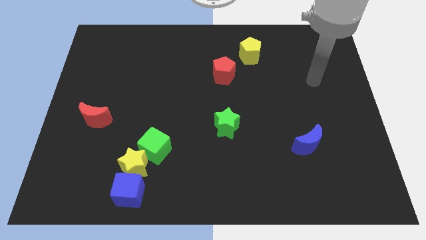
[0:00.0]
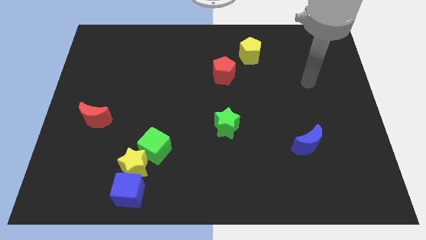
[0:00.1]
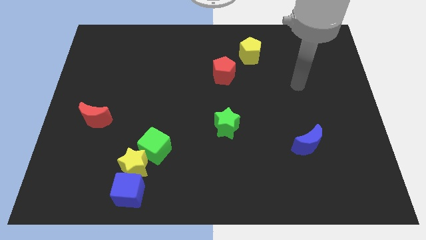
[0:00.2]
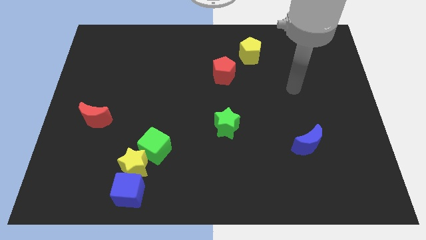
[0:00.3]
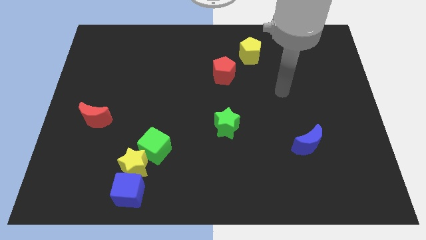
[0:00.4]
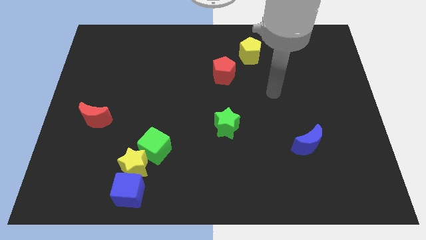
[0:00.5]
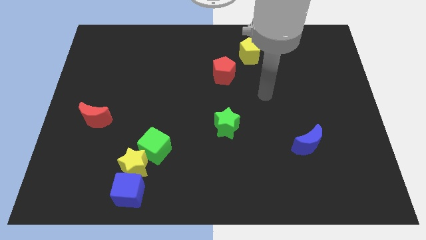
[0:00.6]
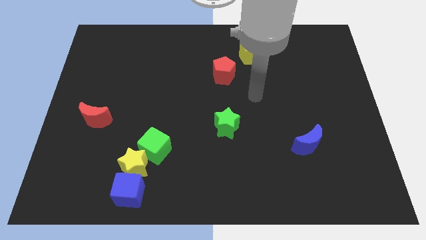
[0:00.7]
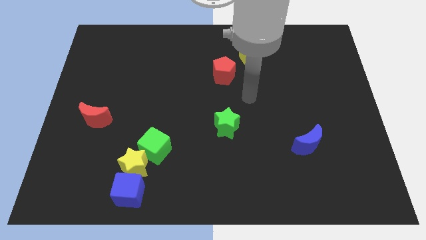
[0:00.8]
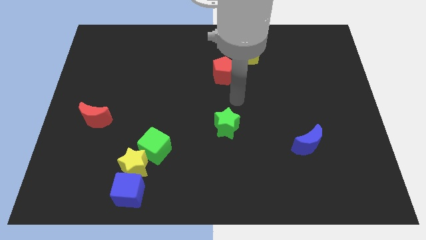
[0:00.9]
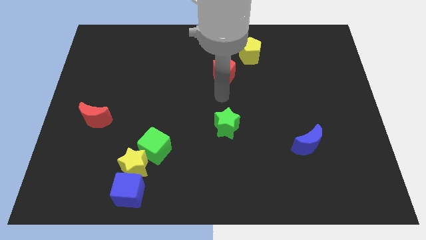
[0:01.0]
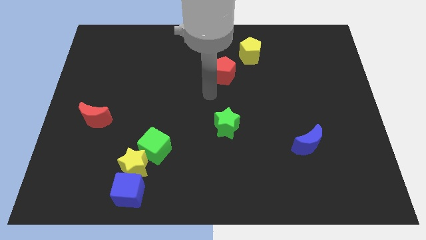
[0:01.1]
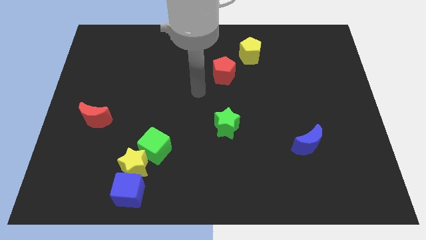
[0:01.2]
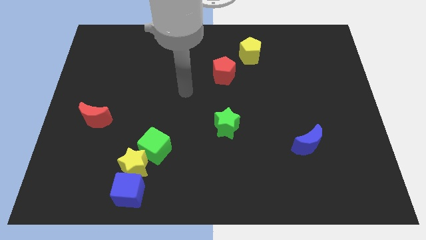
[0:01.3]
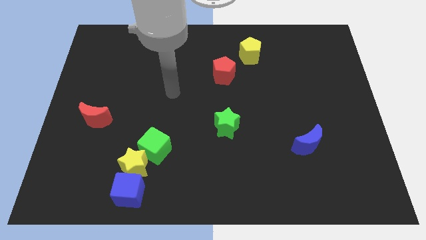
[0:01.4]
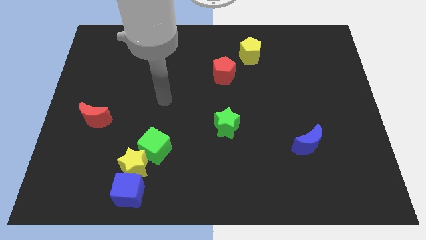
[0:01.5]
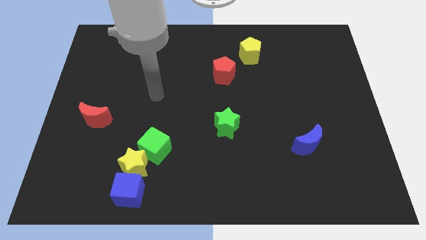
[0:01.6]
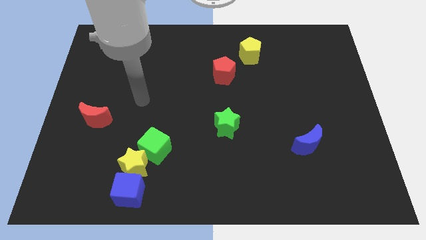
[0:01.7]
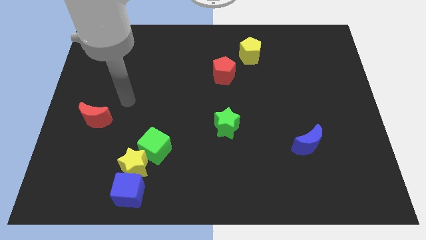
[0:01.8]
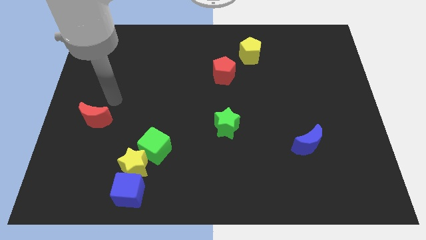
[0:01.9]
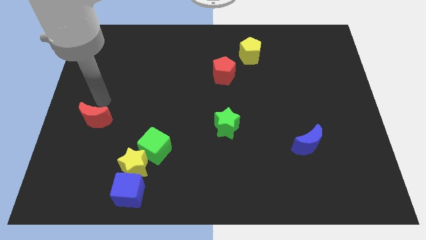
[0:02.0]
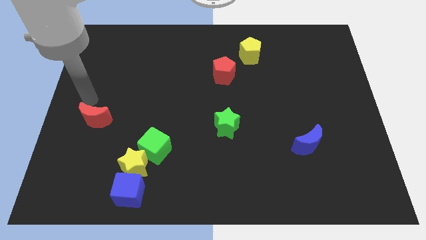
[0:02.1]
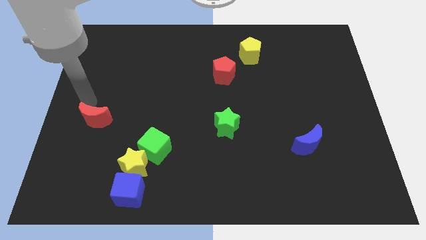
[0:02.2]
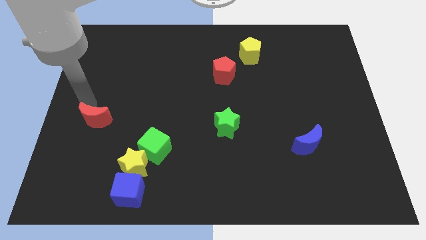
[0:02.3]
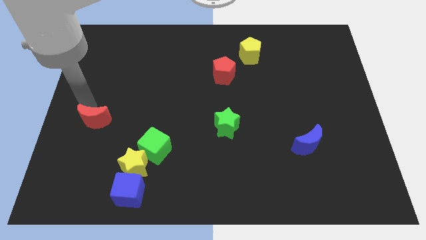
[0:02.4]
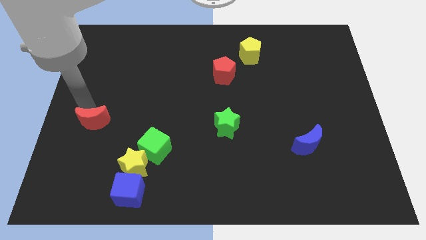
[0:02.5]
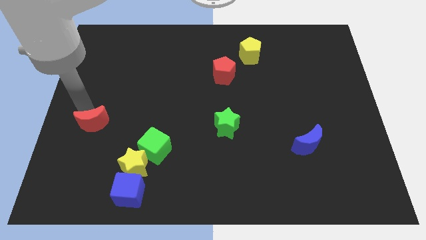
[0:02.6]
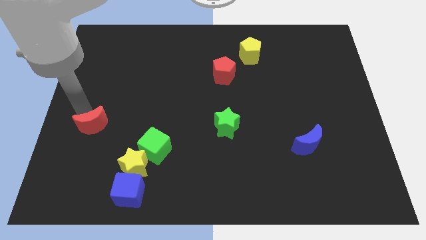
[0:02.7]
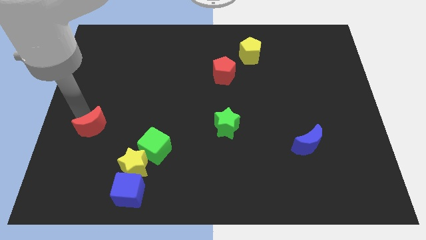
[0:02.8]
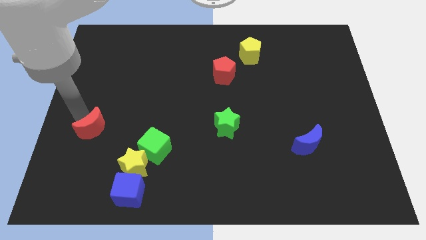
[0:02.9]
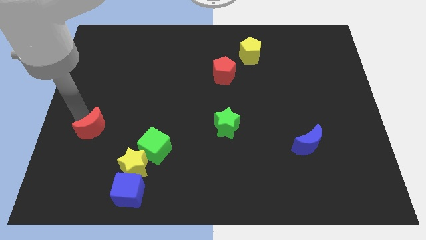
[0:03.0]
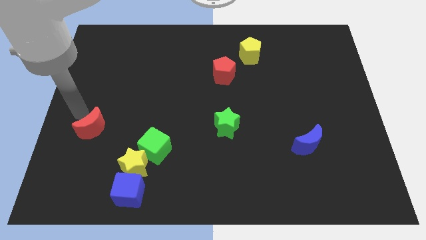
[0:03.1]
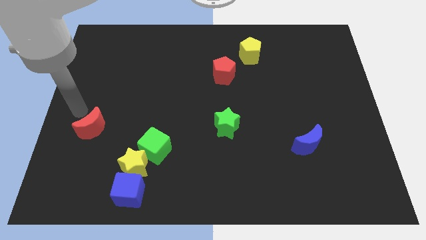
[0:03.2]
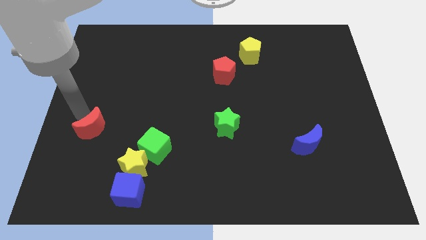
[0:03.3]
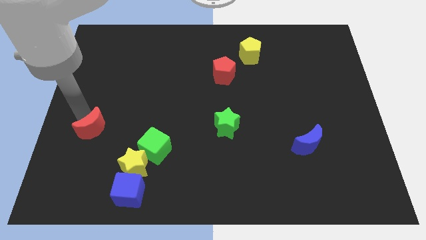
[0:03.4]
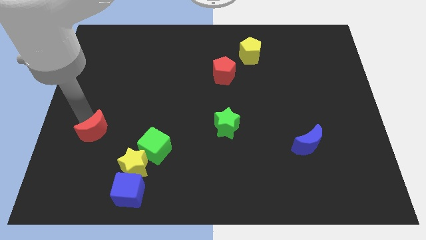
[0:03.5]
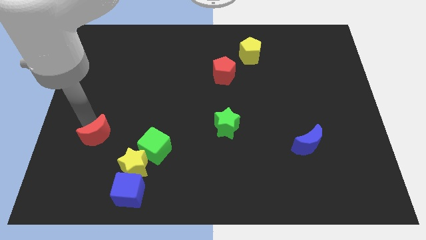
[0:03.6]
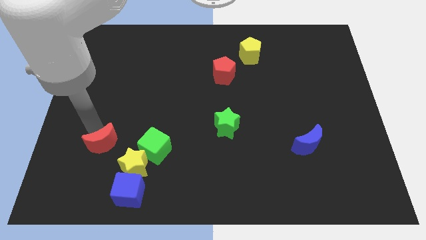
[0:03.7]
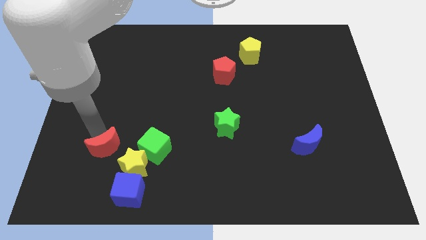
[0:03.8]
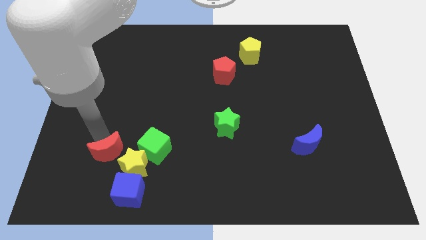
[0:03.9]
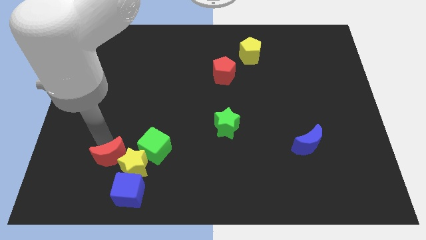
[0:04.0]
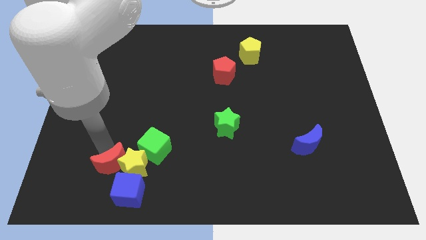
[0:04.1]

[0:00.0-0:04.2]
put the red moon to the bottom left side of the green cube

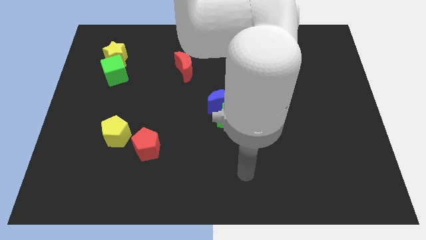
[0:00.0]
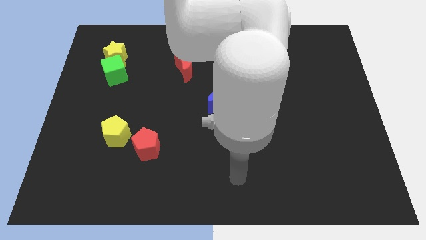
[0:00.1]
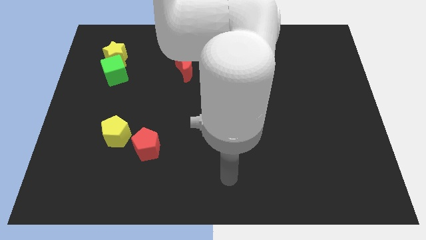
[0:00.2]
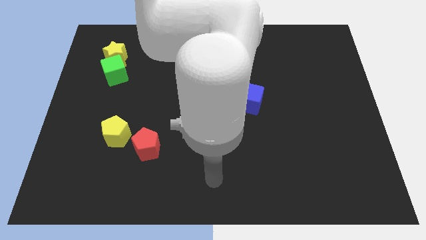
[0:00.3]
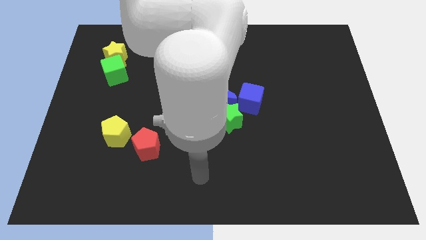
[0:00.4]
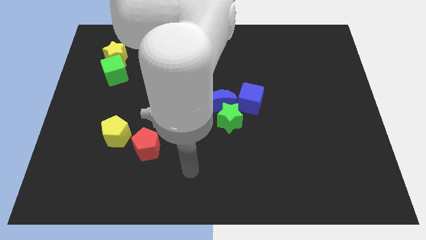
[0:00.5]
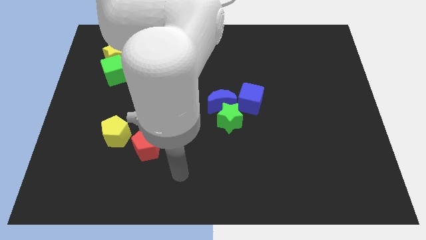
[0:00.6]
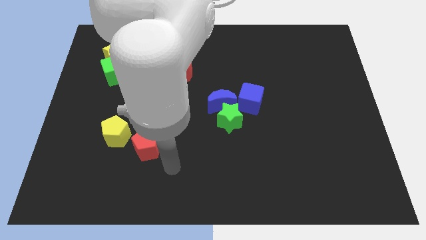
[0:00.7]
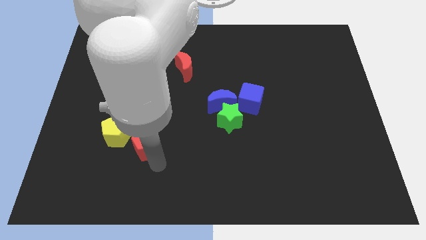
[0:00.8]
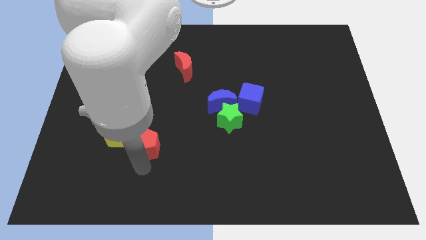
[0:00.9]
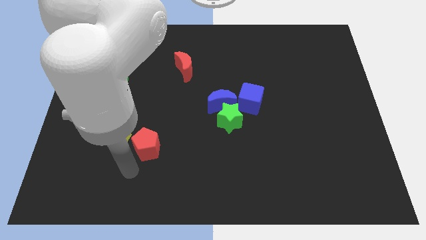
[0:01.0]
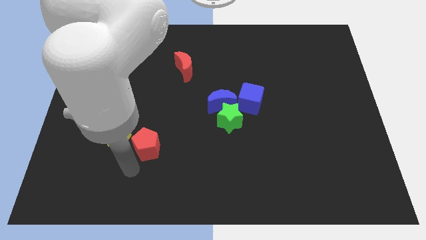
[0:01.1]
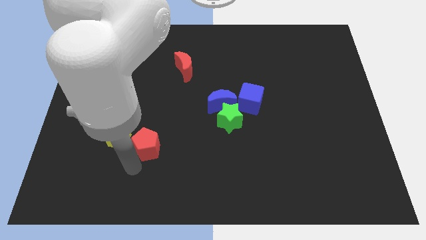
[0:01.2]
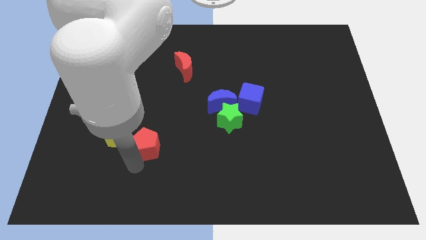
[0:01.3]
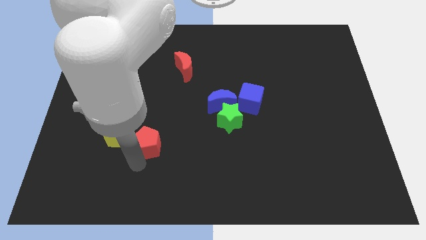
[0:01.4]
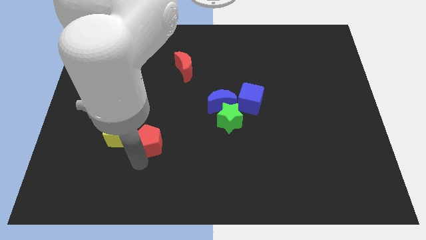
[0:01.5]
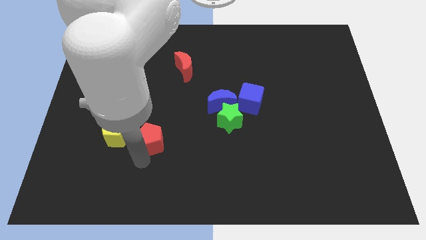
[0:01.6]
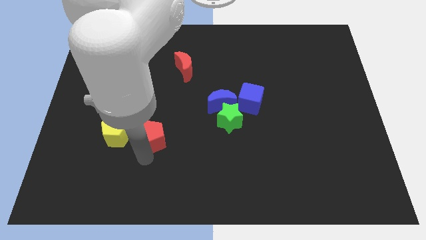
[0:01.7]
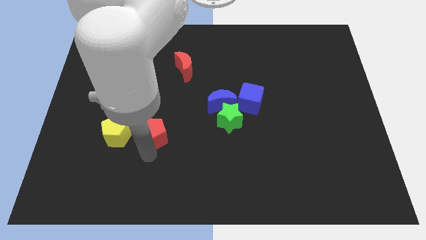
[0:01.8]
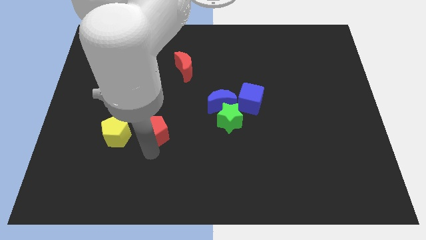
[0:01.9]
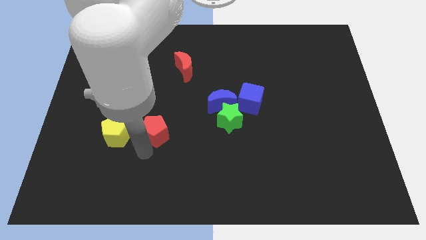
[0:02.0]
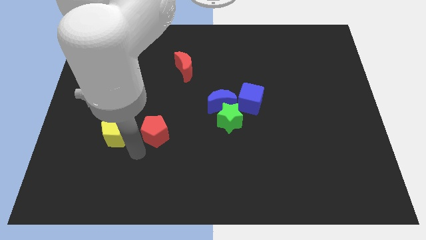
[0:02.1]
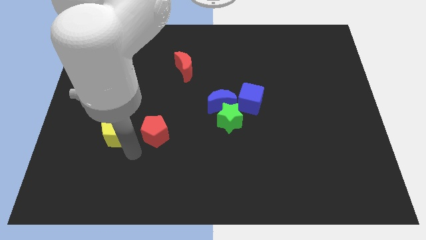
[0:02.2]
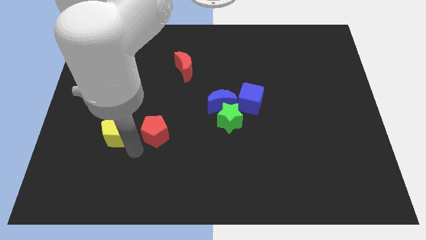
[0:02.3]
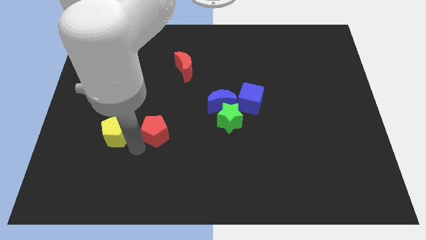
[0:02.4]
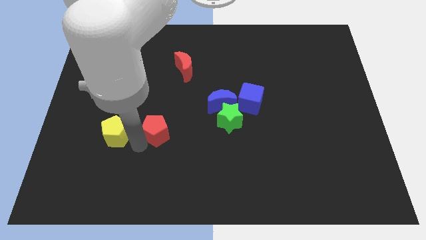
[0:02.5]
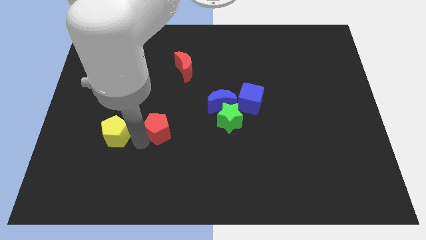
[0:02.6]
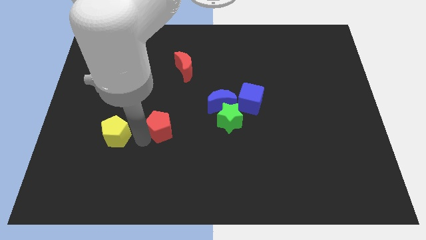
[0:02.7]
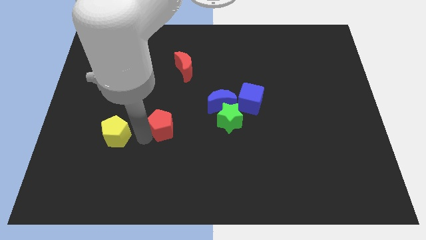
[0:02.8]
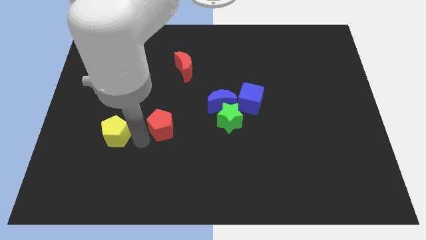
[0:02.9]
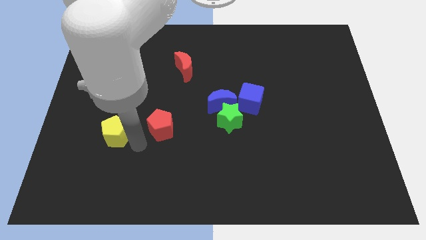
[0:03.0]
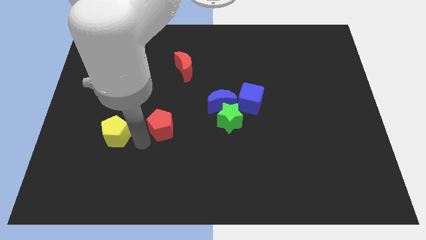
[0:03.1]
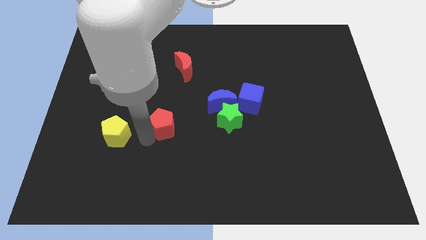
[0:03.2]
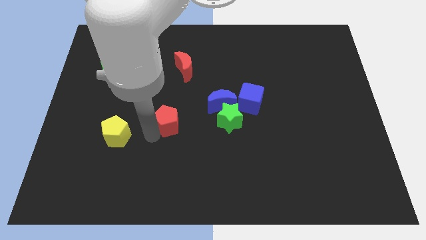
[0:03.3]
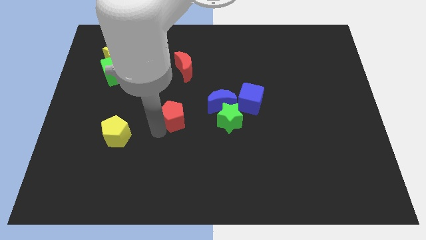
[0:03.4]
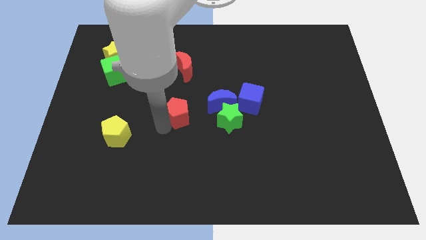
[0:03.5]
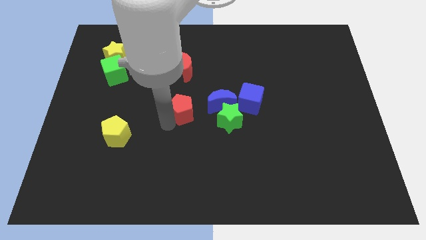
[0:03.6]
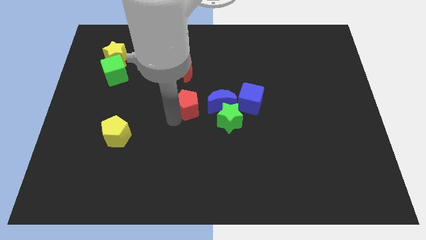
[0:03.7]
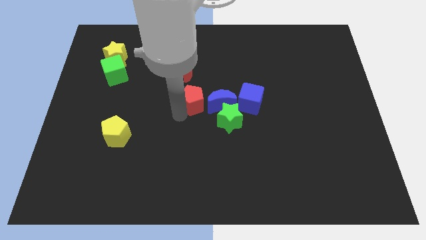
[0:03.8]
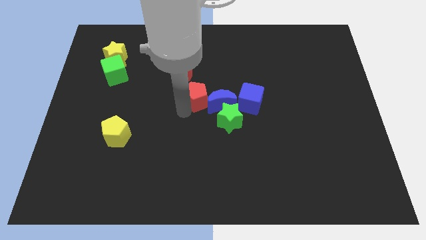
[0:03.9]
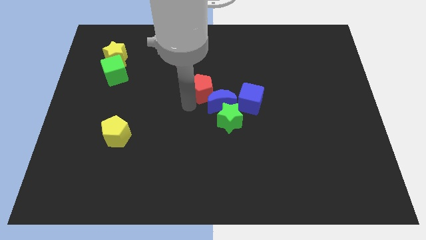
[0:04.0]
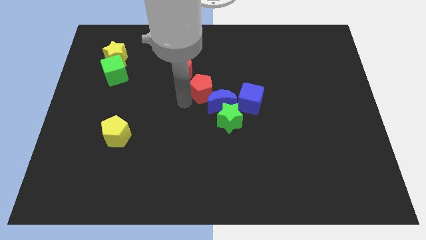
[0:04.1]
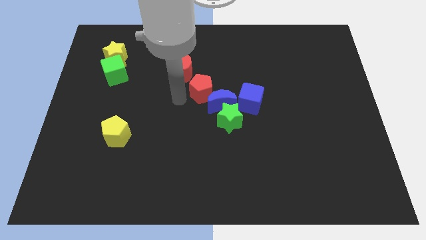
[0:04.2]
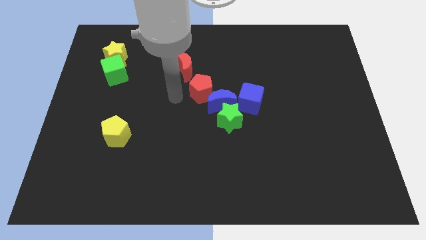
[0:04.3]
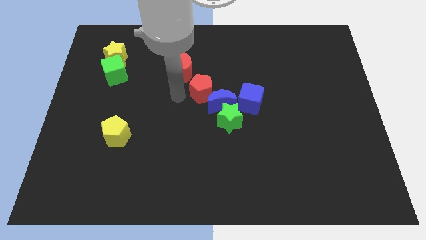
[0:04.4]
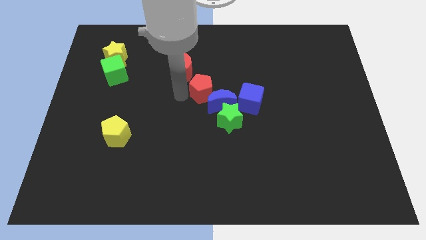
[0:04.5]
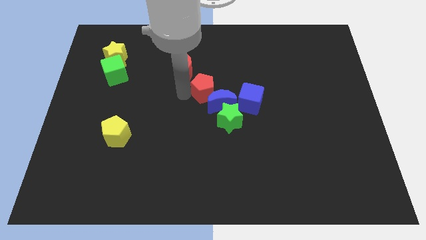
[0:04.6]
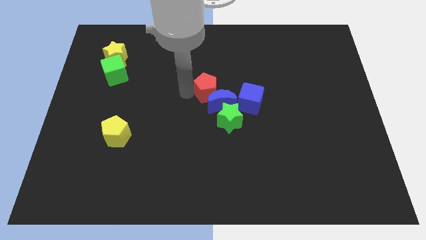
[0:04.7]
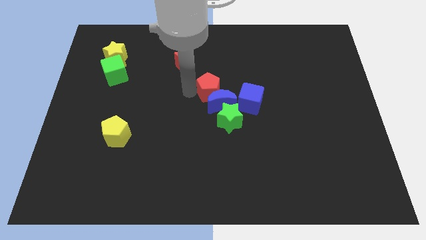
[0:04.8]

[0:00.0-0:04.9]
slide the red pentagon to the top side of the green star
